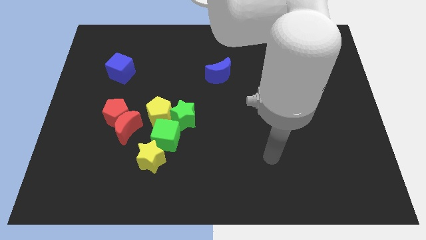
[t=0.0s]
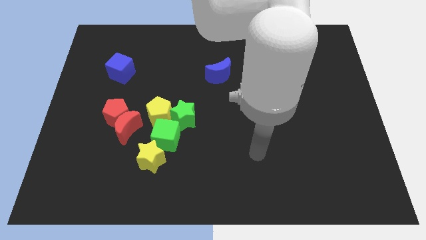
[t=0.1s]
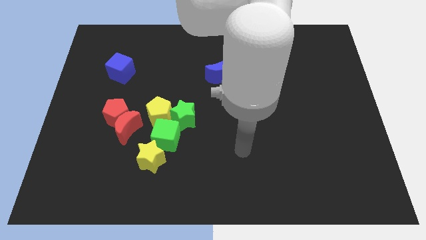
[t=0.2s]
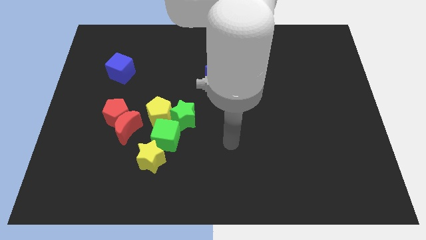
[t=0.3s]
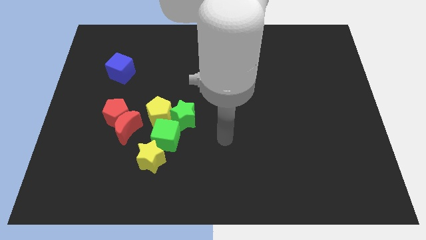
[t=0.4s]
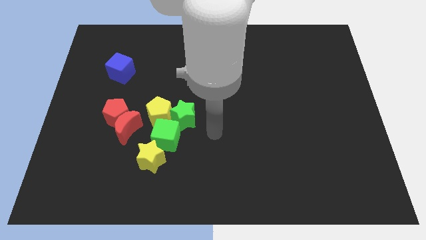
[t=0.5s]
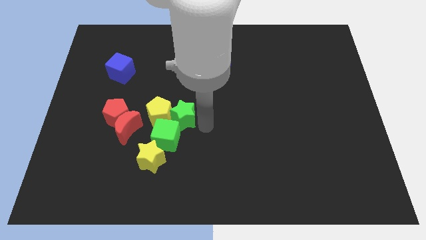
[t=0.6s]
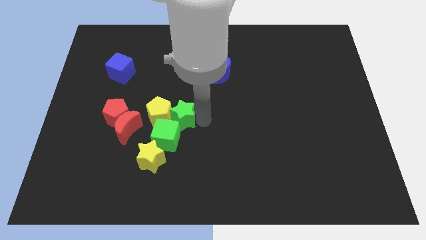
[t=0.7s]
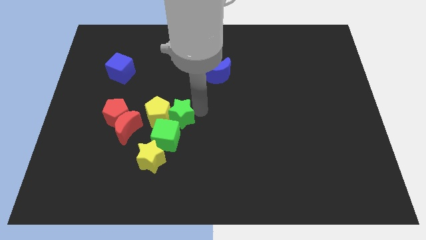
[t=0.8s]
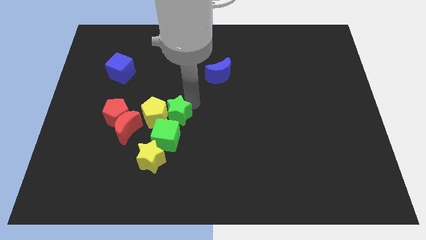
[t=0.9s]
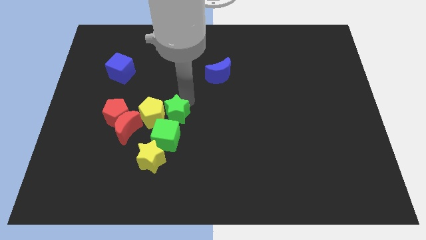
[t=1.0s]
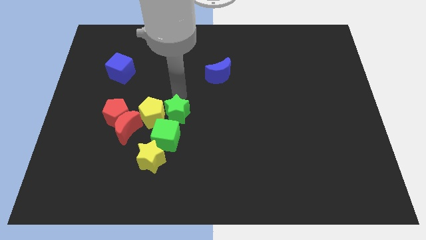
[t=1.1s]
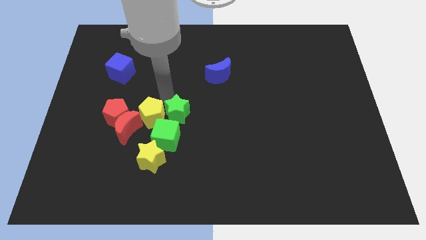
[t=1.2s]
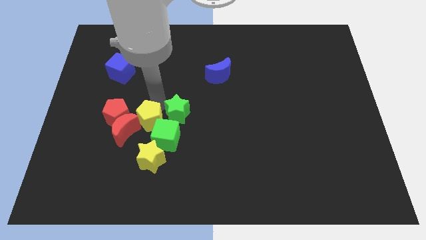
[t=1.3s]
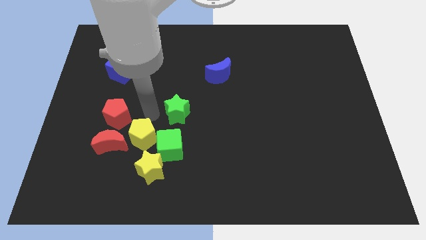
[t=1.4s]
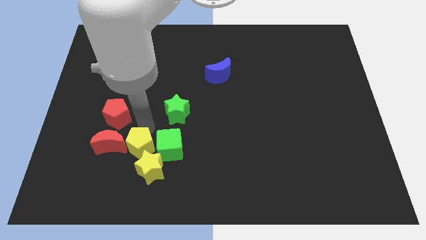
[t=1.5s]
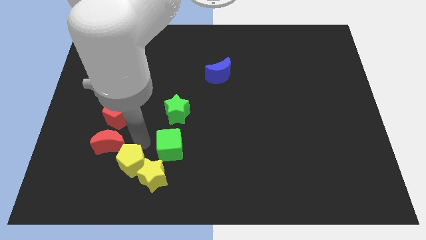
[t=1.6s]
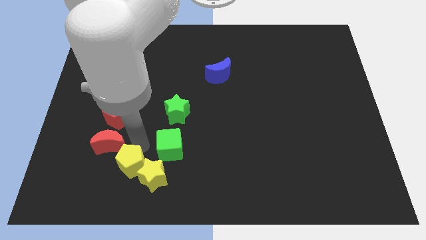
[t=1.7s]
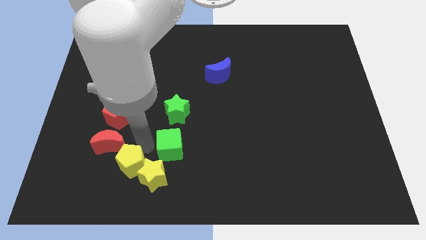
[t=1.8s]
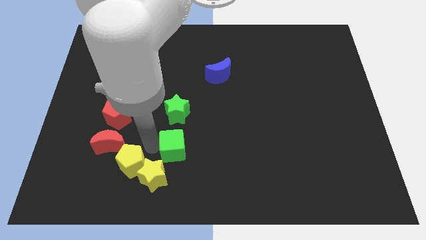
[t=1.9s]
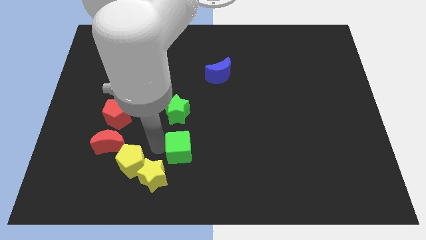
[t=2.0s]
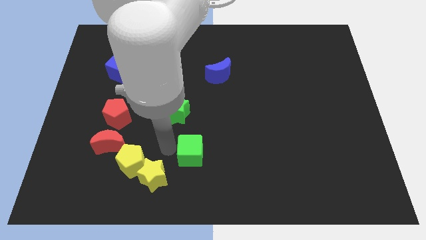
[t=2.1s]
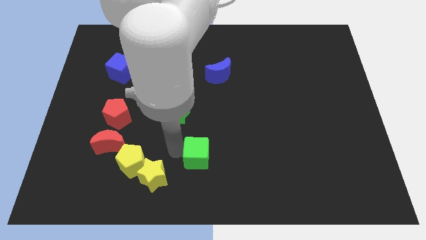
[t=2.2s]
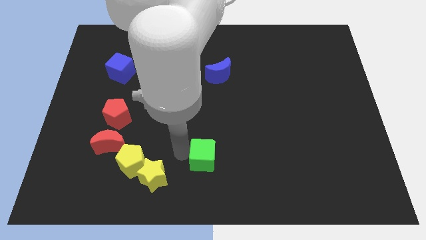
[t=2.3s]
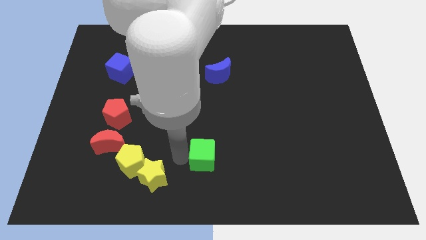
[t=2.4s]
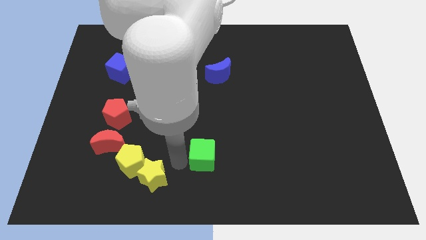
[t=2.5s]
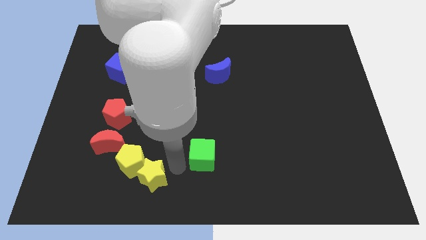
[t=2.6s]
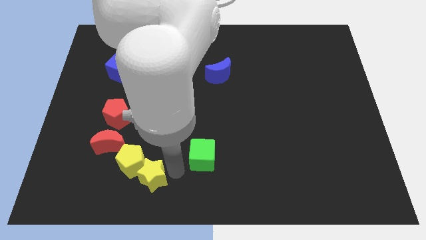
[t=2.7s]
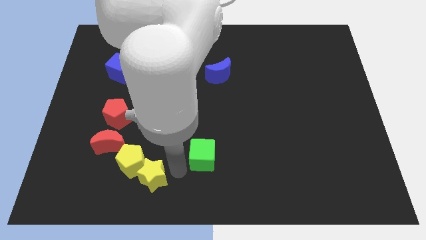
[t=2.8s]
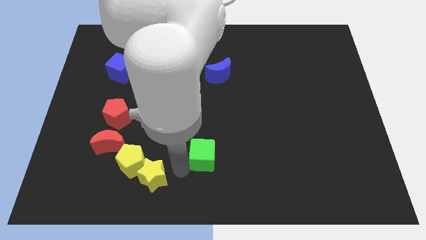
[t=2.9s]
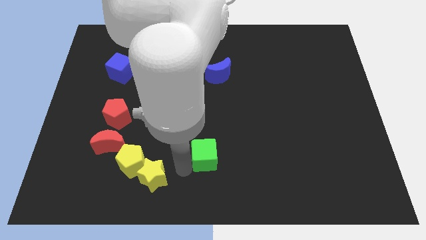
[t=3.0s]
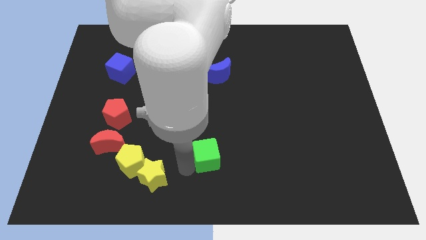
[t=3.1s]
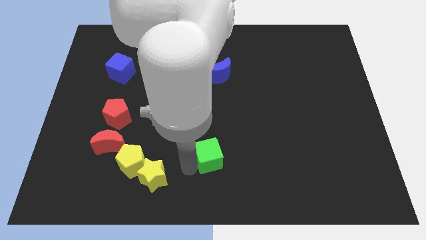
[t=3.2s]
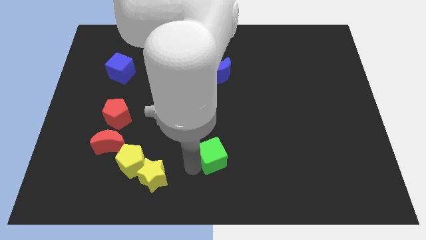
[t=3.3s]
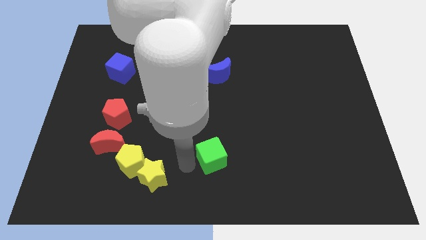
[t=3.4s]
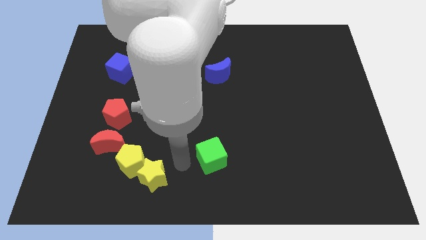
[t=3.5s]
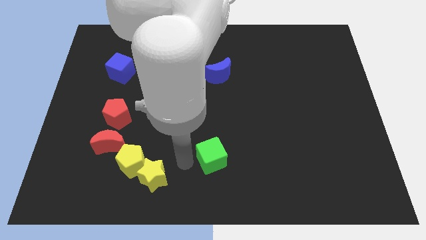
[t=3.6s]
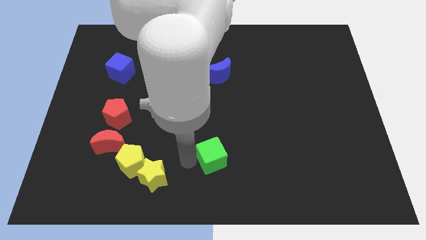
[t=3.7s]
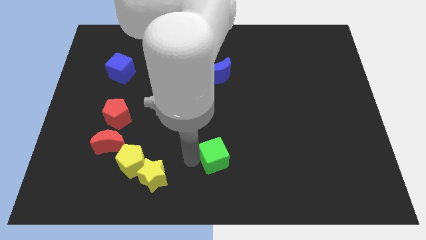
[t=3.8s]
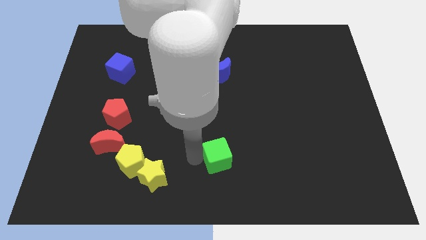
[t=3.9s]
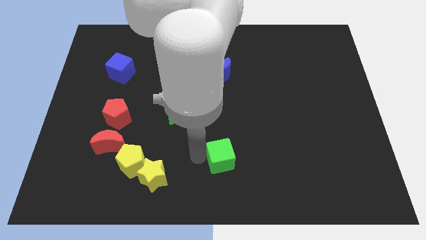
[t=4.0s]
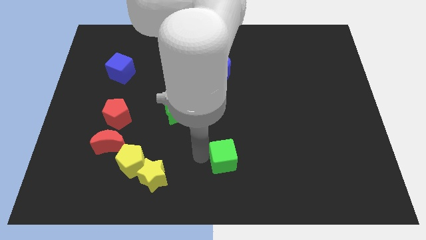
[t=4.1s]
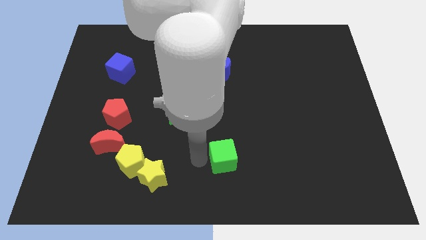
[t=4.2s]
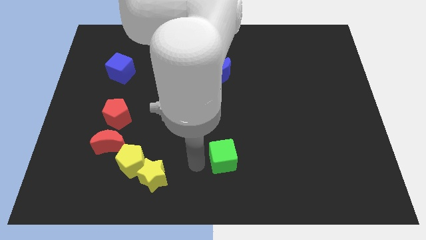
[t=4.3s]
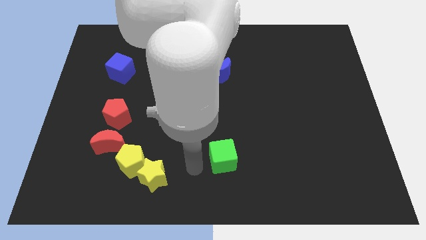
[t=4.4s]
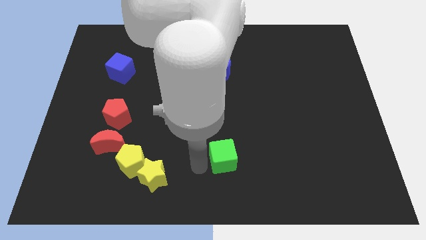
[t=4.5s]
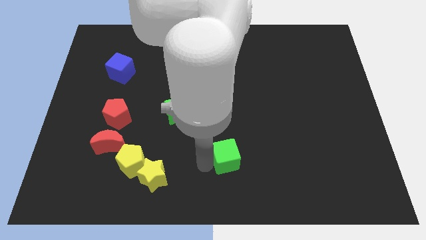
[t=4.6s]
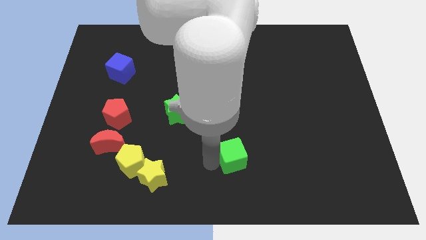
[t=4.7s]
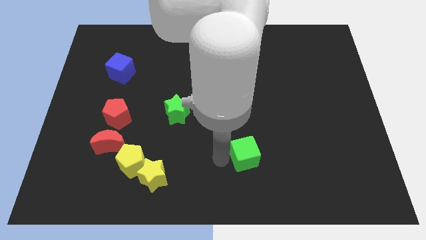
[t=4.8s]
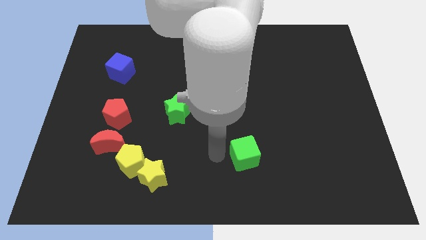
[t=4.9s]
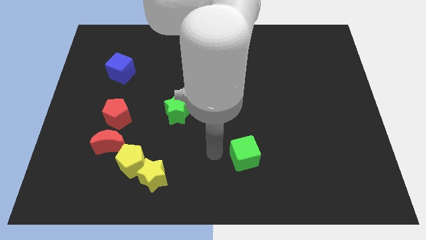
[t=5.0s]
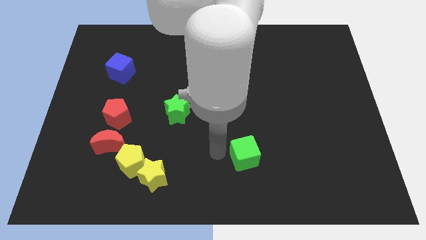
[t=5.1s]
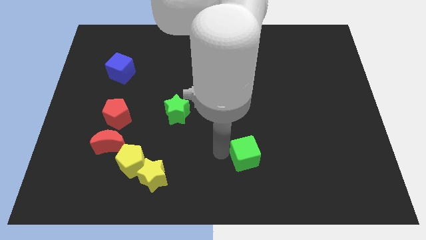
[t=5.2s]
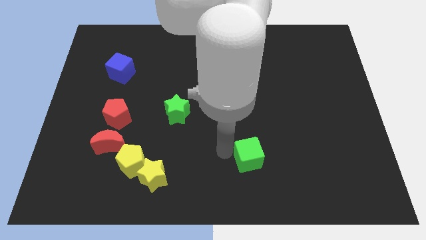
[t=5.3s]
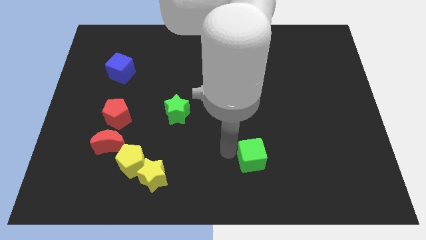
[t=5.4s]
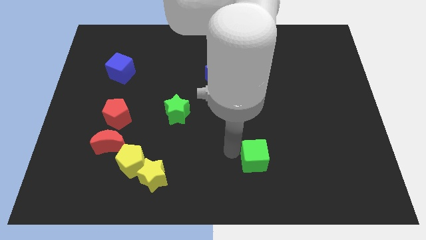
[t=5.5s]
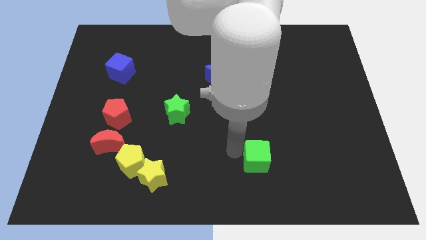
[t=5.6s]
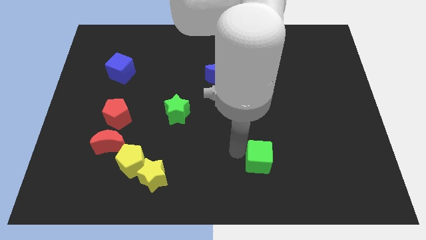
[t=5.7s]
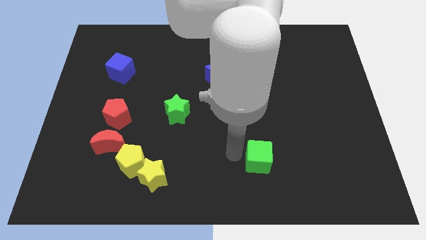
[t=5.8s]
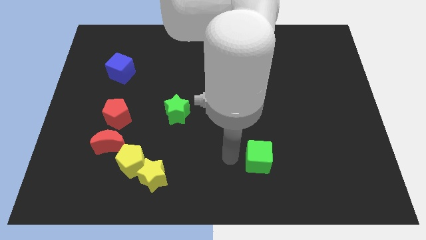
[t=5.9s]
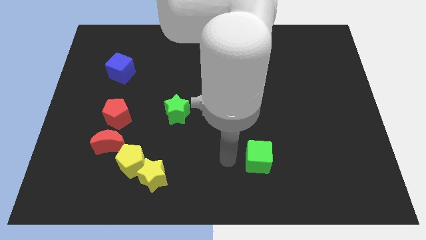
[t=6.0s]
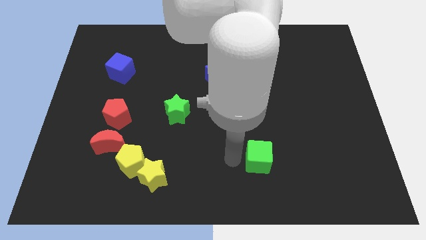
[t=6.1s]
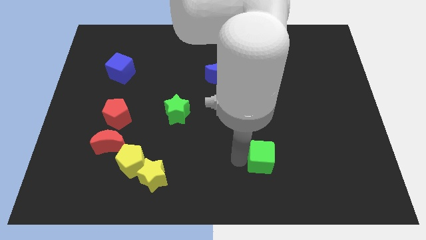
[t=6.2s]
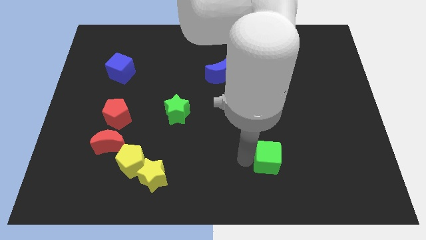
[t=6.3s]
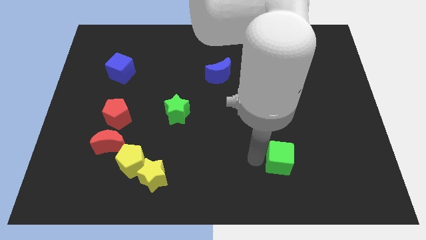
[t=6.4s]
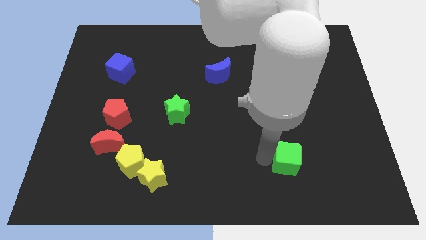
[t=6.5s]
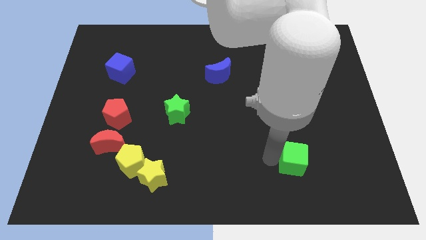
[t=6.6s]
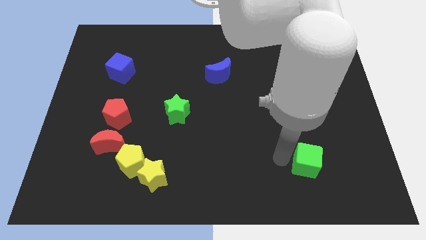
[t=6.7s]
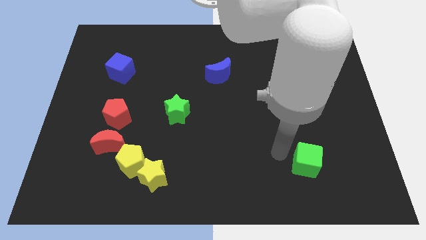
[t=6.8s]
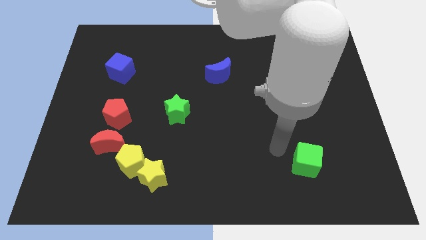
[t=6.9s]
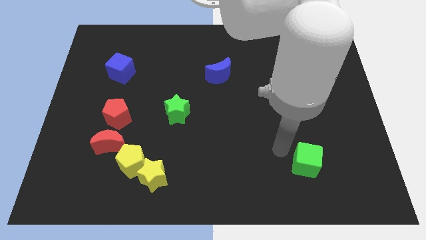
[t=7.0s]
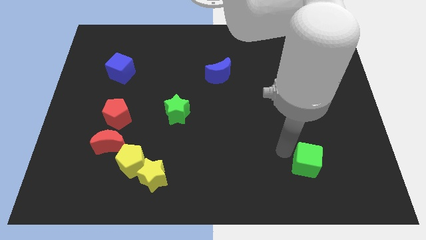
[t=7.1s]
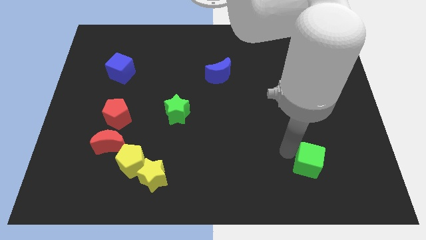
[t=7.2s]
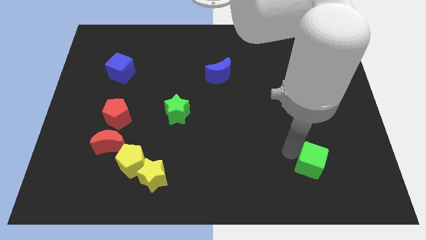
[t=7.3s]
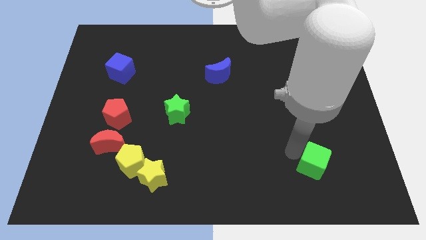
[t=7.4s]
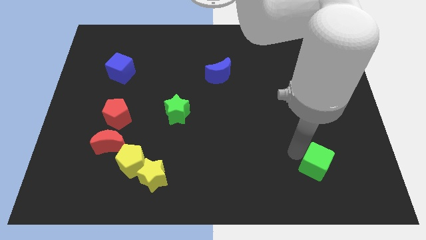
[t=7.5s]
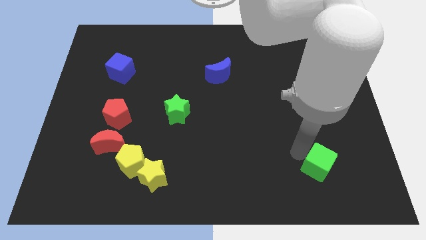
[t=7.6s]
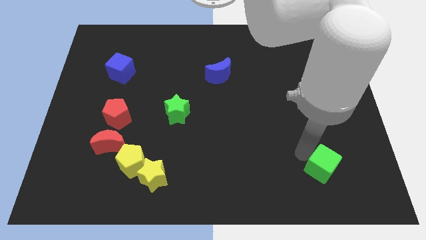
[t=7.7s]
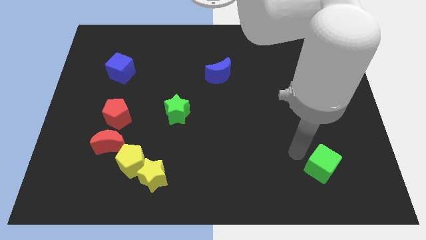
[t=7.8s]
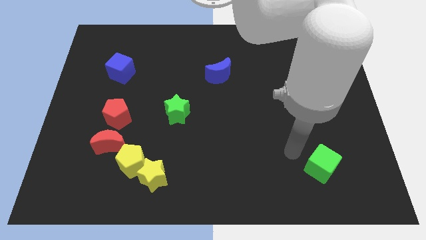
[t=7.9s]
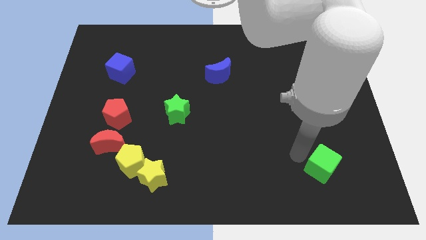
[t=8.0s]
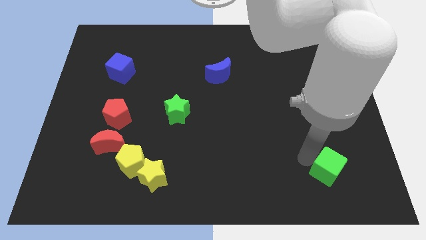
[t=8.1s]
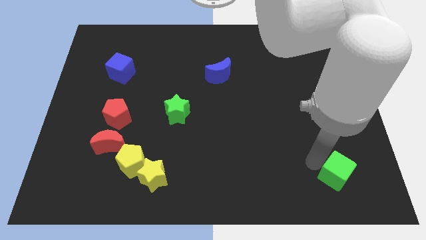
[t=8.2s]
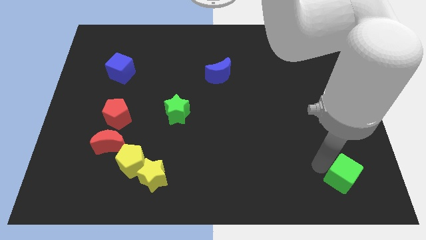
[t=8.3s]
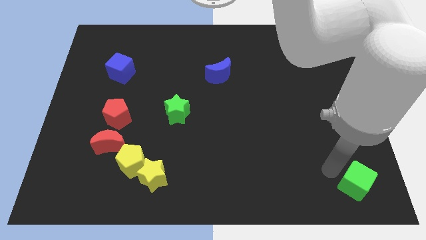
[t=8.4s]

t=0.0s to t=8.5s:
push the green cube to the bottom right of the board
